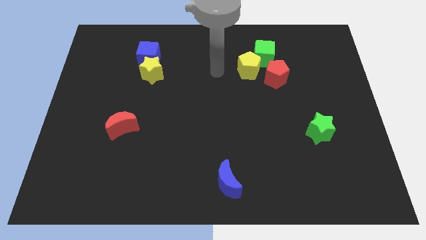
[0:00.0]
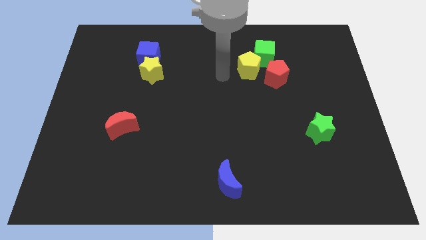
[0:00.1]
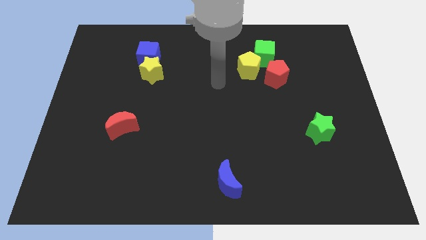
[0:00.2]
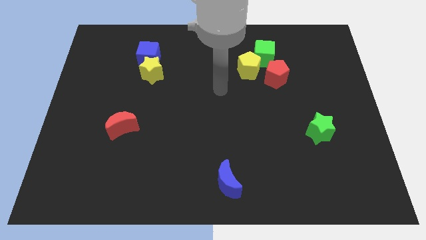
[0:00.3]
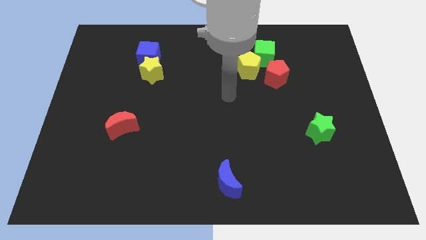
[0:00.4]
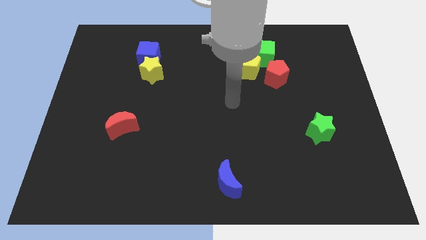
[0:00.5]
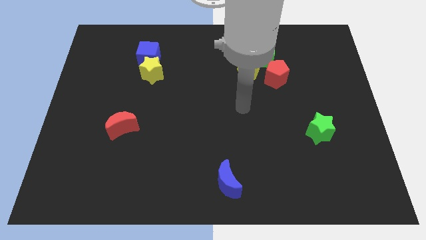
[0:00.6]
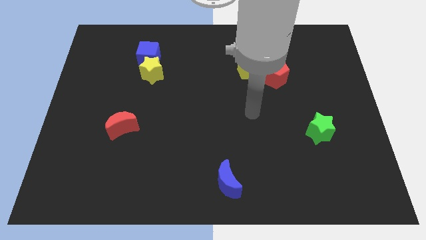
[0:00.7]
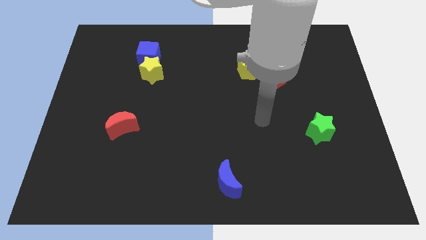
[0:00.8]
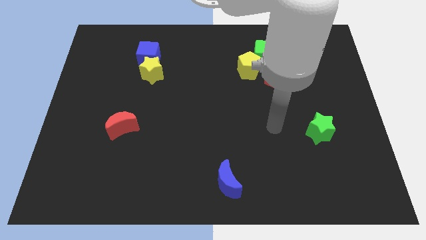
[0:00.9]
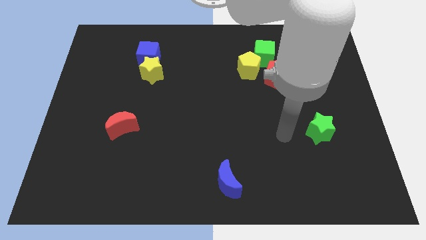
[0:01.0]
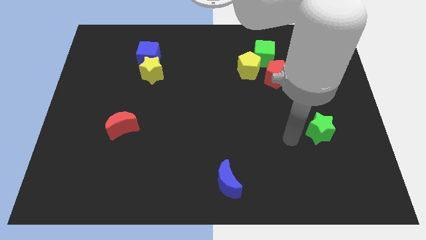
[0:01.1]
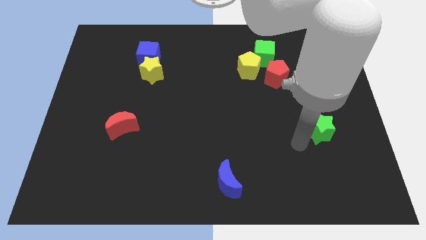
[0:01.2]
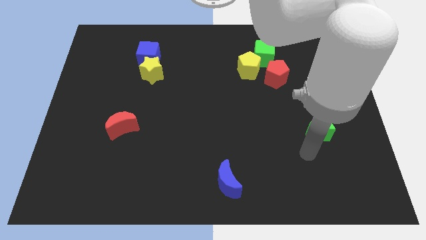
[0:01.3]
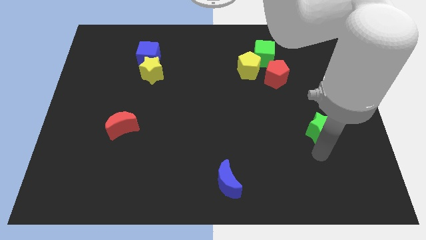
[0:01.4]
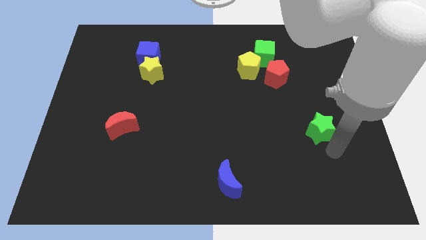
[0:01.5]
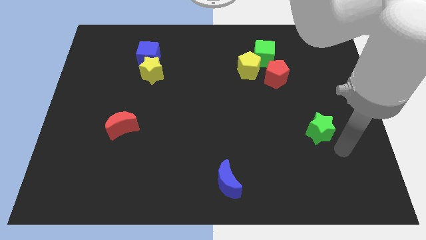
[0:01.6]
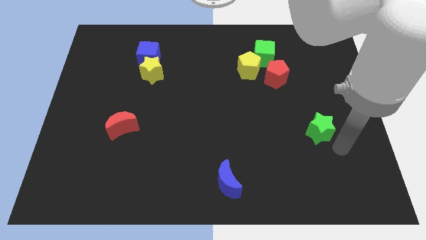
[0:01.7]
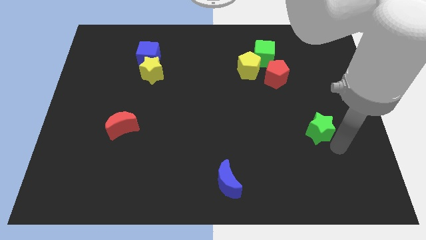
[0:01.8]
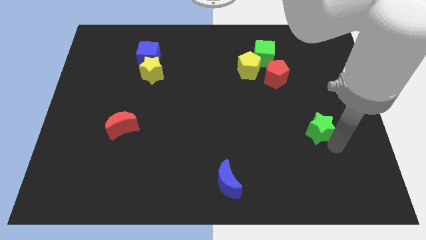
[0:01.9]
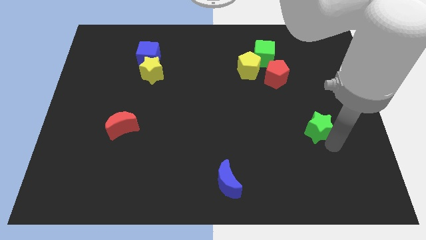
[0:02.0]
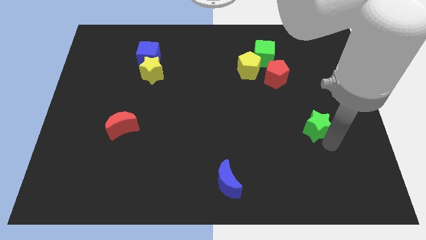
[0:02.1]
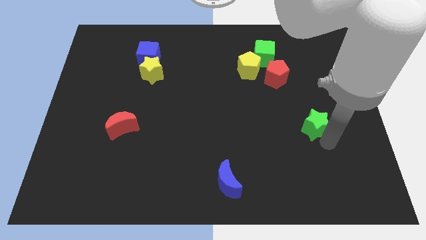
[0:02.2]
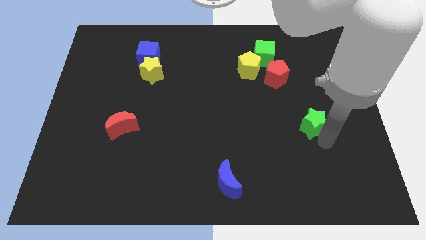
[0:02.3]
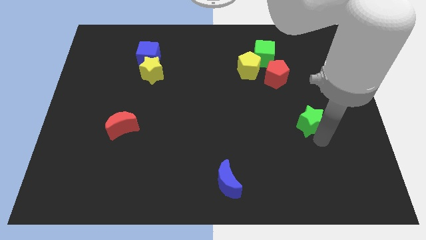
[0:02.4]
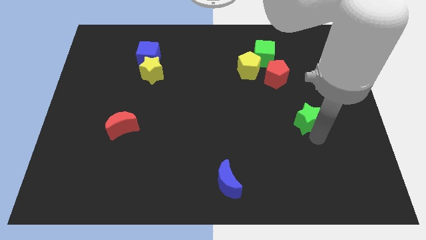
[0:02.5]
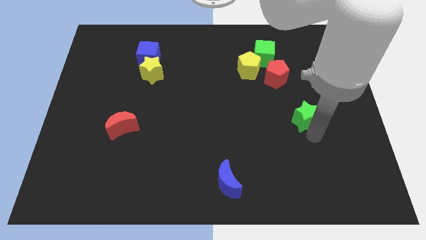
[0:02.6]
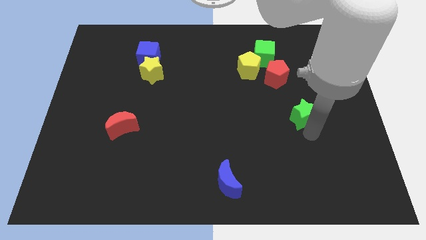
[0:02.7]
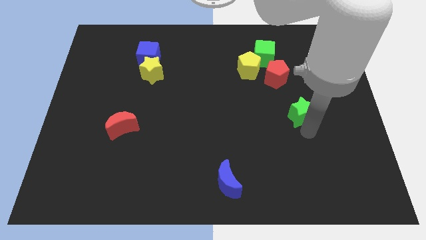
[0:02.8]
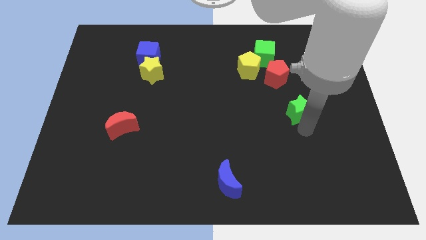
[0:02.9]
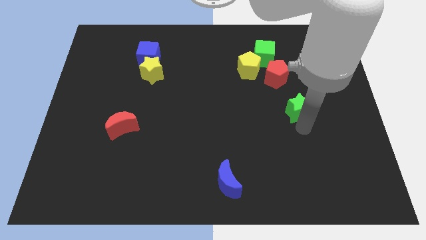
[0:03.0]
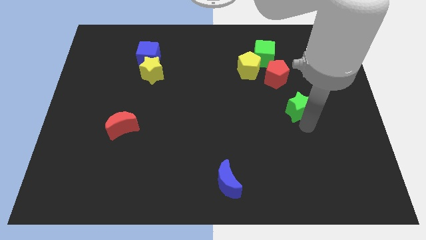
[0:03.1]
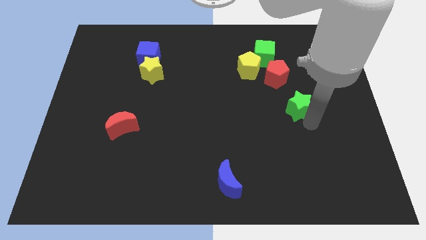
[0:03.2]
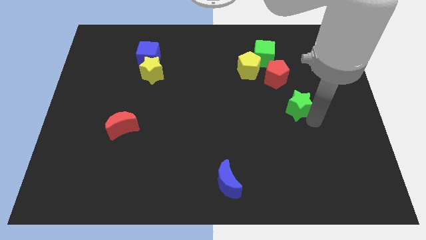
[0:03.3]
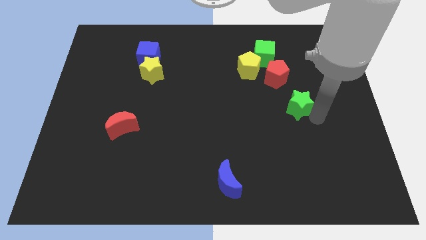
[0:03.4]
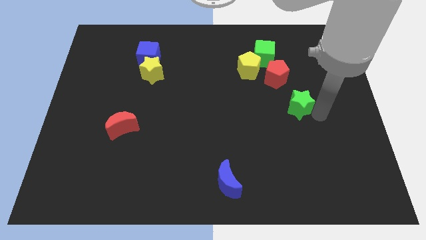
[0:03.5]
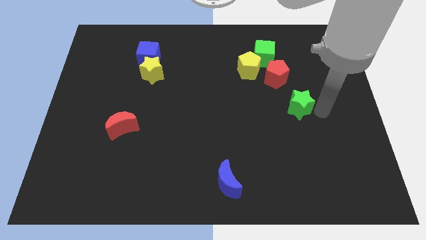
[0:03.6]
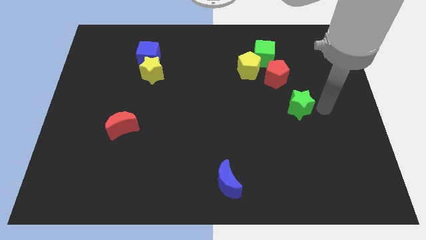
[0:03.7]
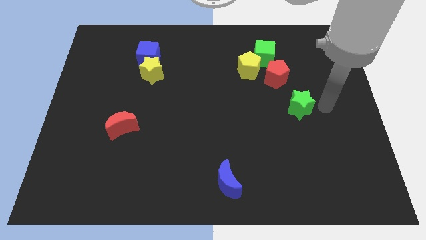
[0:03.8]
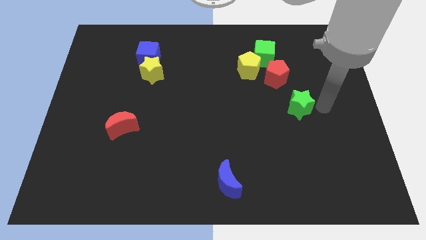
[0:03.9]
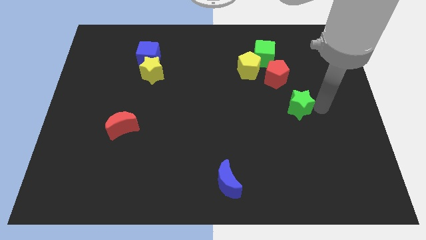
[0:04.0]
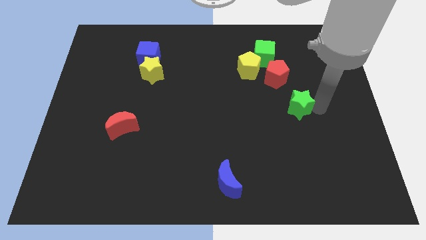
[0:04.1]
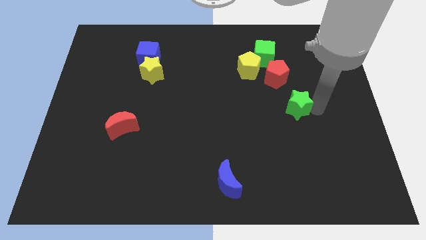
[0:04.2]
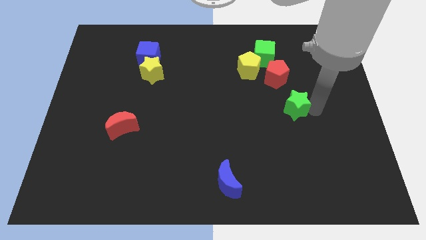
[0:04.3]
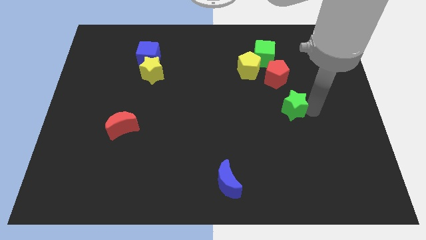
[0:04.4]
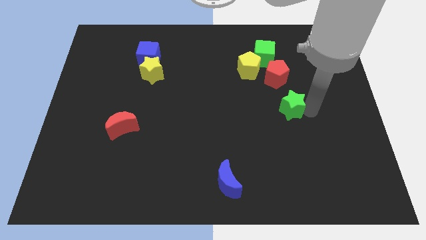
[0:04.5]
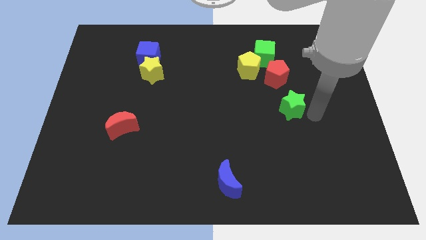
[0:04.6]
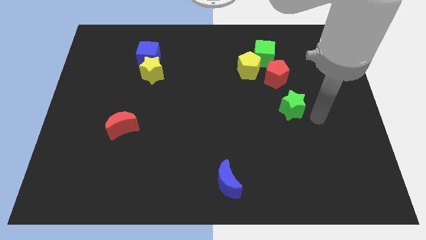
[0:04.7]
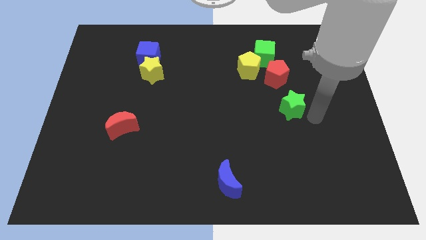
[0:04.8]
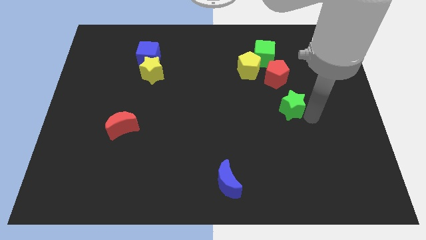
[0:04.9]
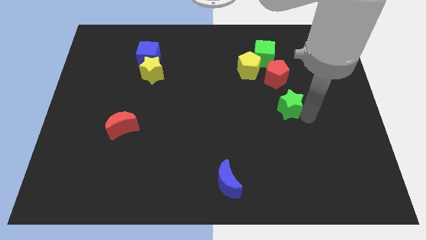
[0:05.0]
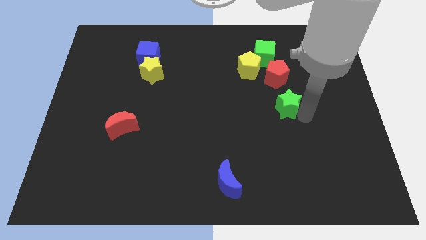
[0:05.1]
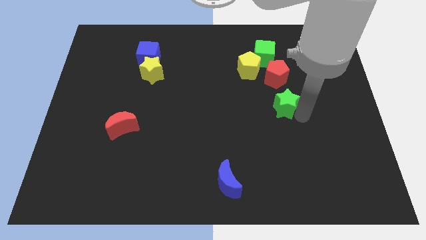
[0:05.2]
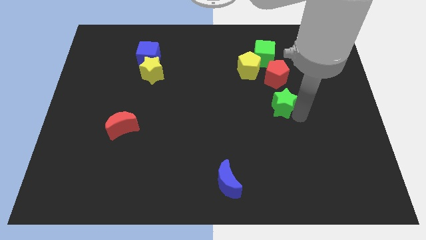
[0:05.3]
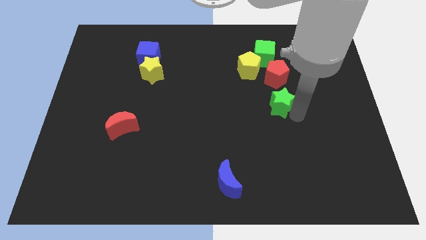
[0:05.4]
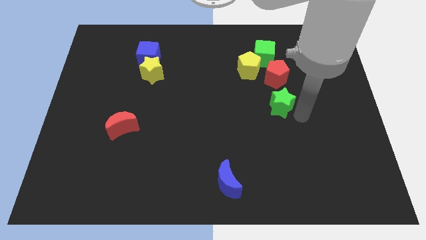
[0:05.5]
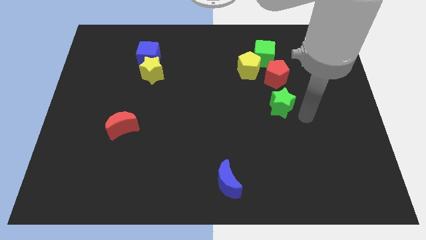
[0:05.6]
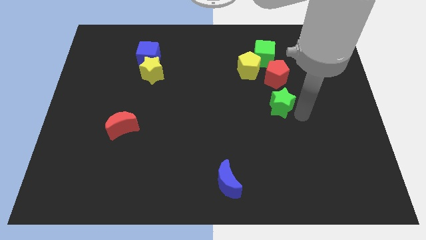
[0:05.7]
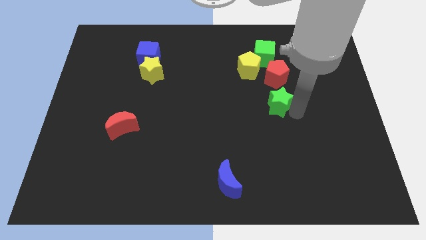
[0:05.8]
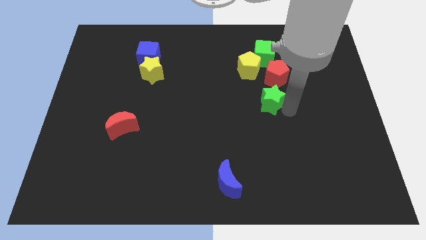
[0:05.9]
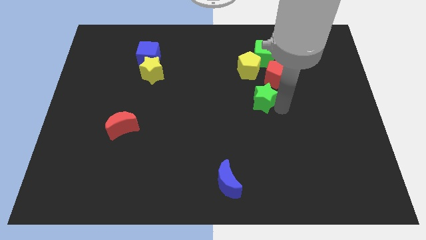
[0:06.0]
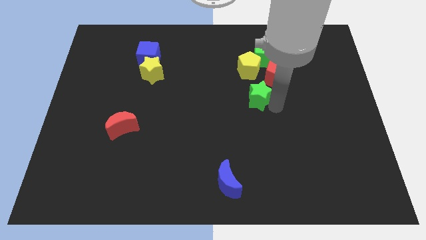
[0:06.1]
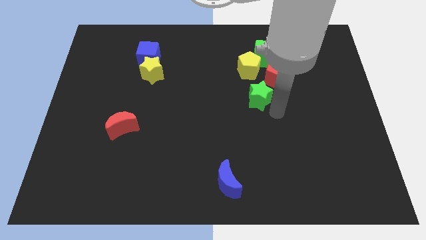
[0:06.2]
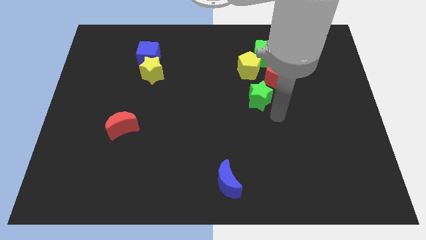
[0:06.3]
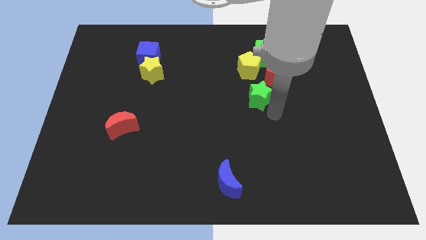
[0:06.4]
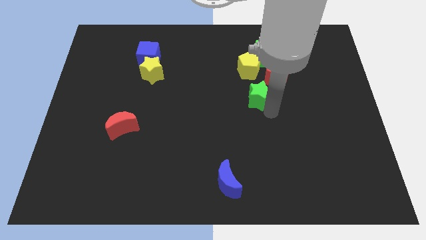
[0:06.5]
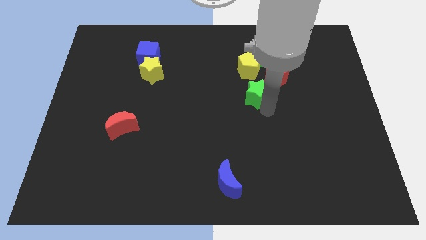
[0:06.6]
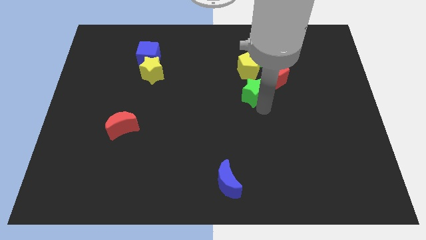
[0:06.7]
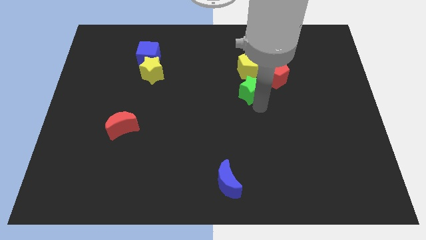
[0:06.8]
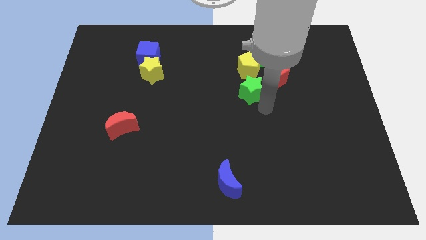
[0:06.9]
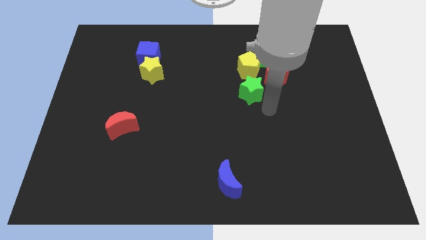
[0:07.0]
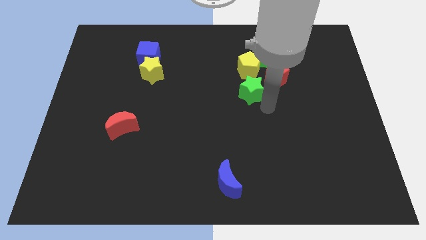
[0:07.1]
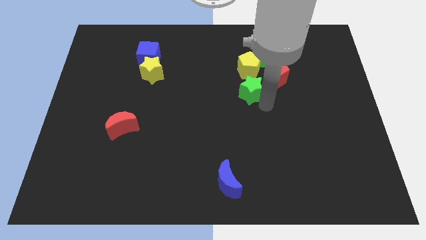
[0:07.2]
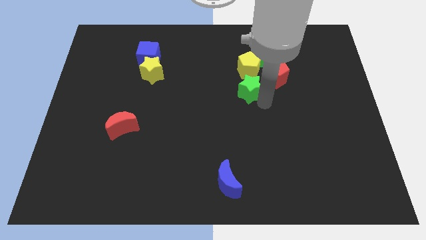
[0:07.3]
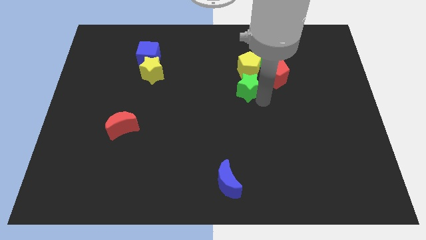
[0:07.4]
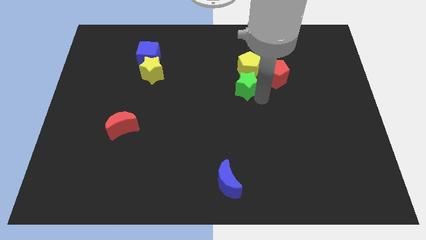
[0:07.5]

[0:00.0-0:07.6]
push the green star upwards and to the left

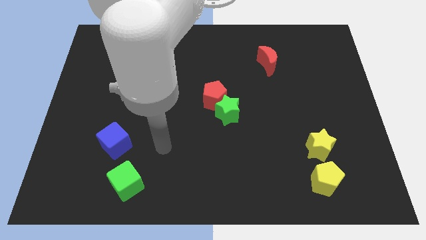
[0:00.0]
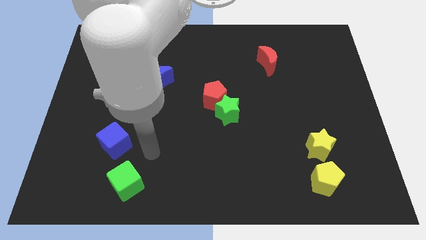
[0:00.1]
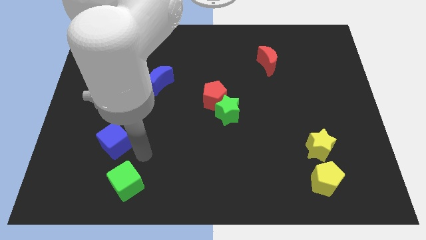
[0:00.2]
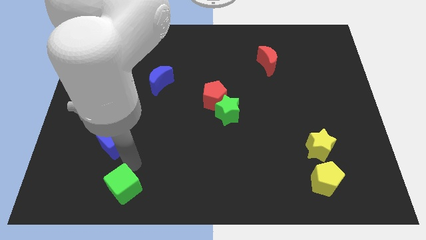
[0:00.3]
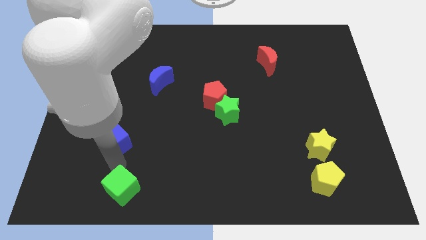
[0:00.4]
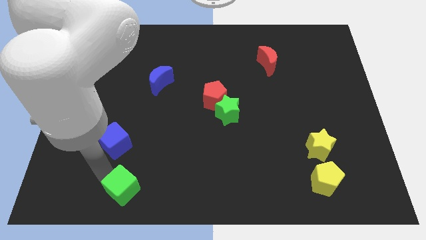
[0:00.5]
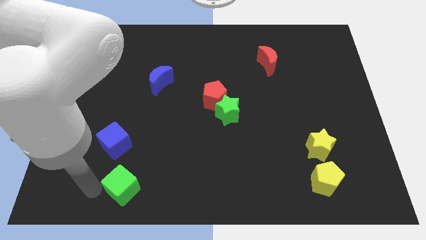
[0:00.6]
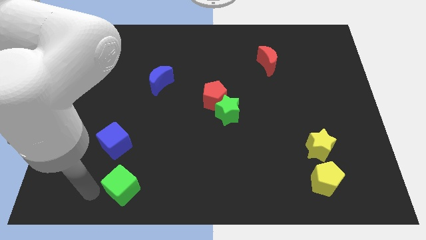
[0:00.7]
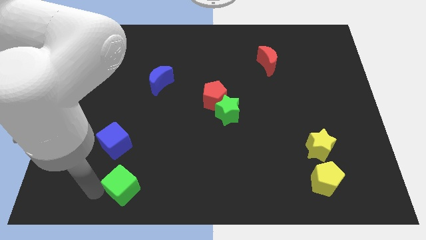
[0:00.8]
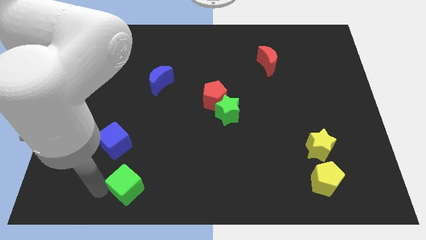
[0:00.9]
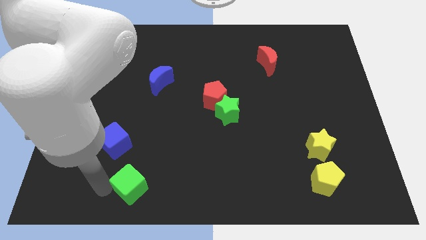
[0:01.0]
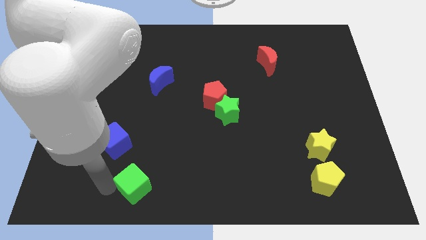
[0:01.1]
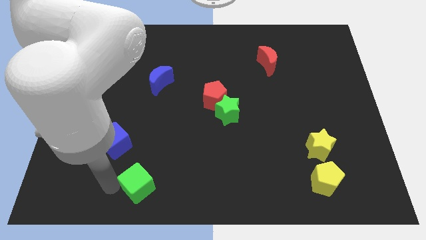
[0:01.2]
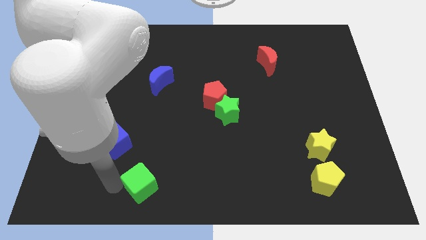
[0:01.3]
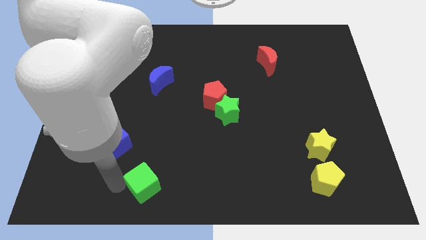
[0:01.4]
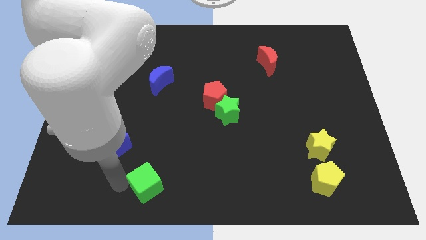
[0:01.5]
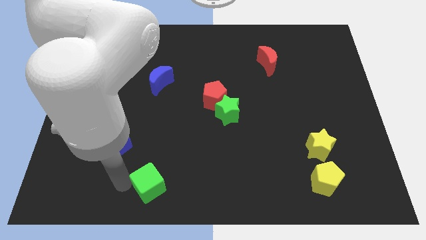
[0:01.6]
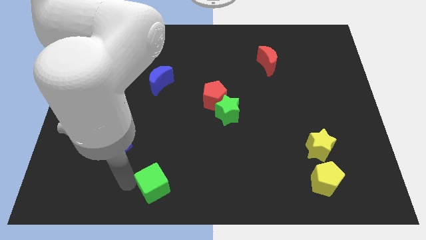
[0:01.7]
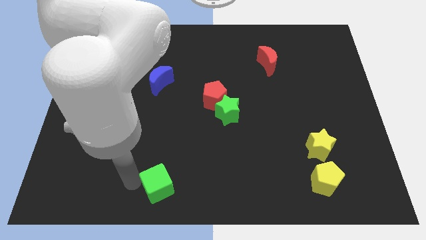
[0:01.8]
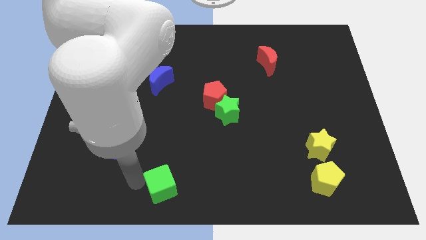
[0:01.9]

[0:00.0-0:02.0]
move the green cube right a little
